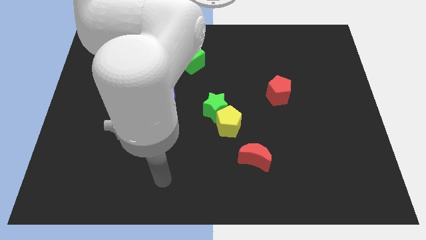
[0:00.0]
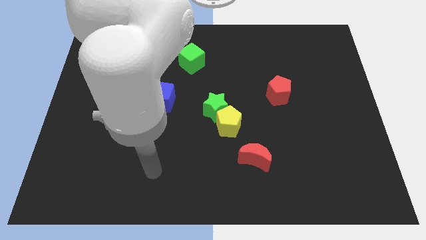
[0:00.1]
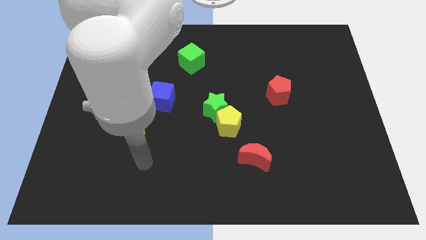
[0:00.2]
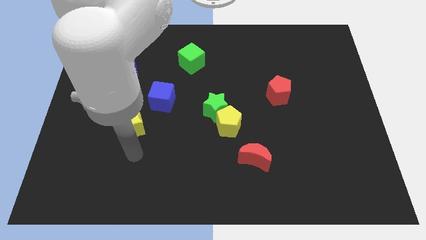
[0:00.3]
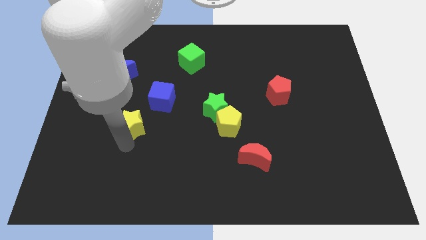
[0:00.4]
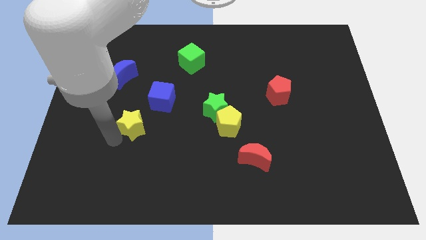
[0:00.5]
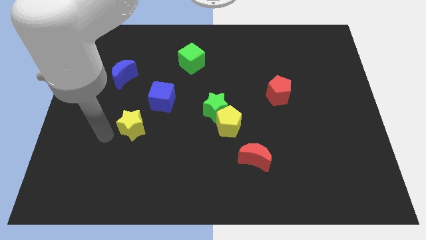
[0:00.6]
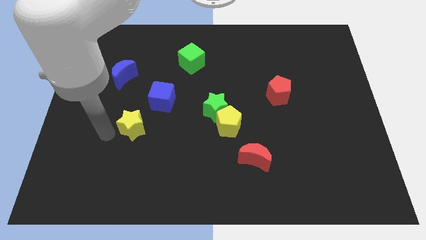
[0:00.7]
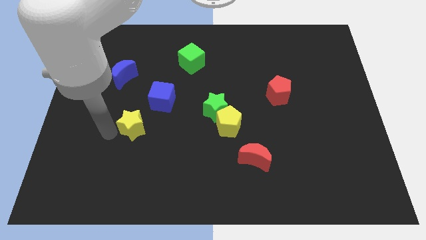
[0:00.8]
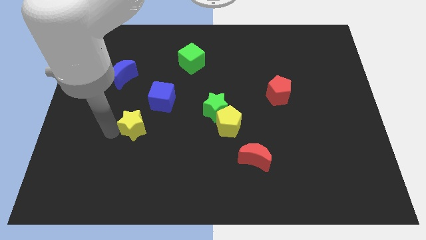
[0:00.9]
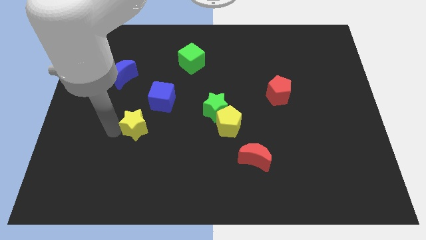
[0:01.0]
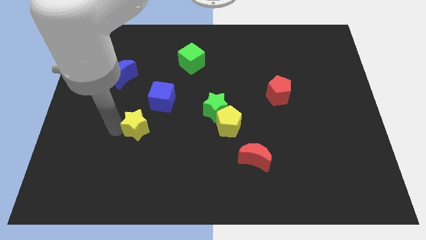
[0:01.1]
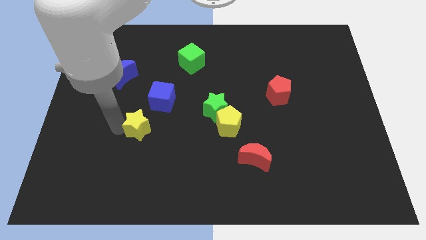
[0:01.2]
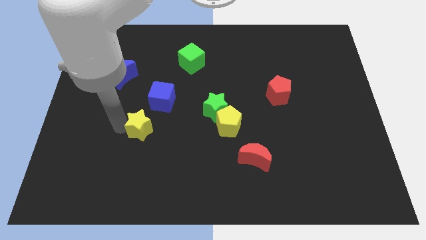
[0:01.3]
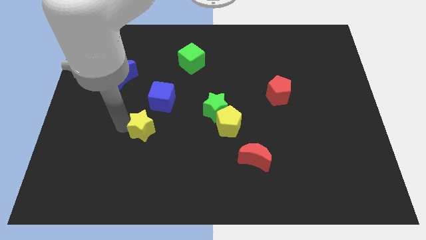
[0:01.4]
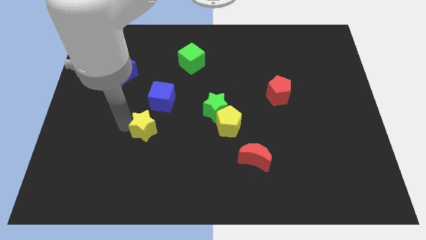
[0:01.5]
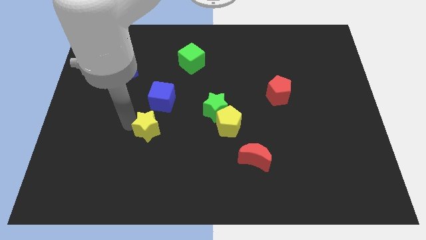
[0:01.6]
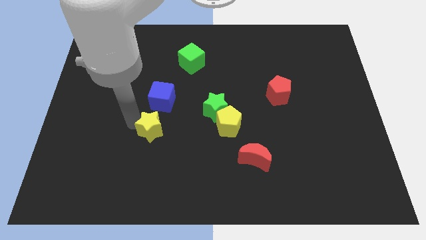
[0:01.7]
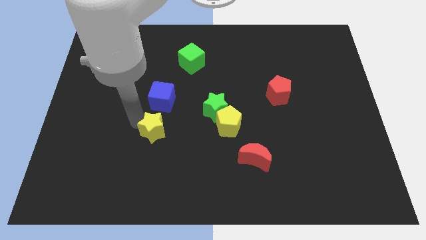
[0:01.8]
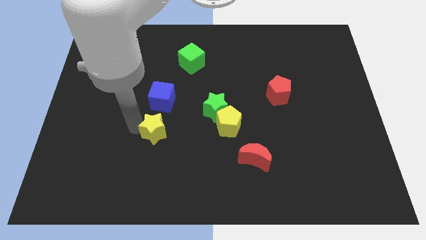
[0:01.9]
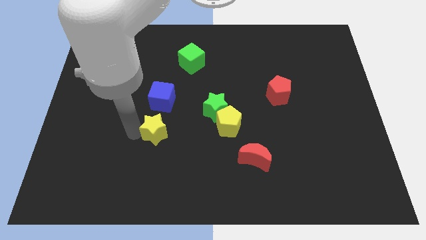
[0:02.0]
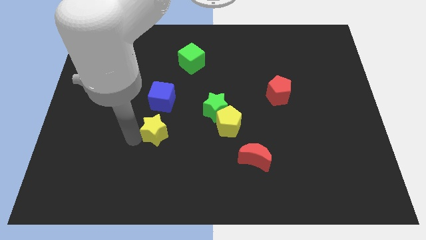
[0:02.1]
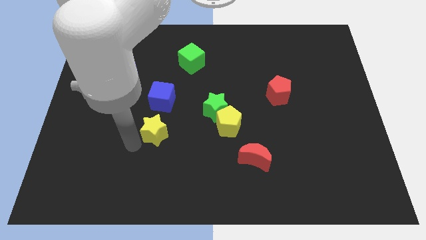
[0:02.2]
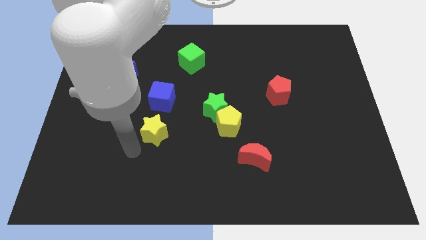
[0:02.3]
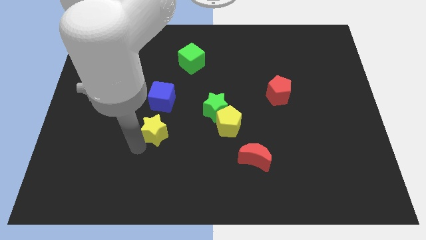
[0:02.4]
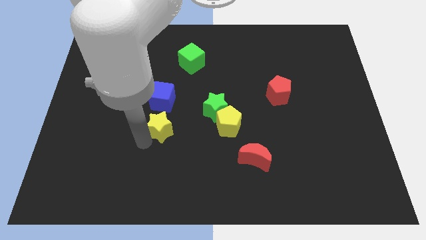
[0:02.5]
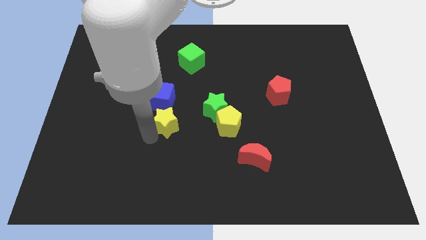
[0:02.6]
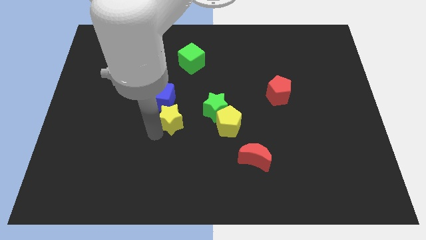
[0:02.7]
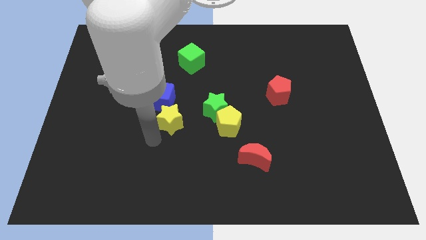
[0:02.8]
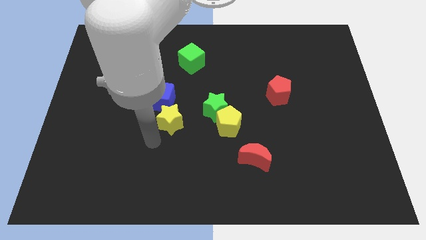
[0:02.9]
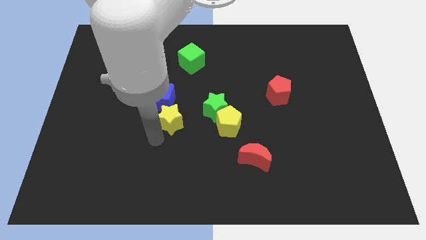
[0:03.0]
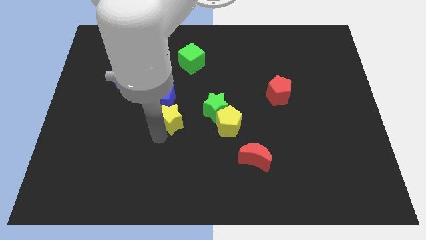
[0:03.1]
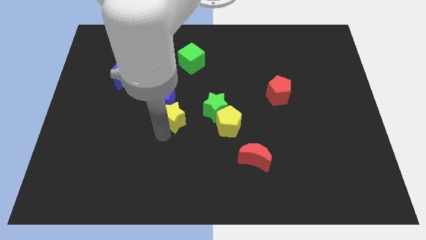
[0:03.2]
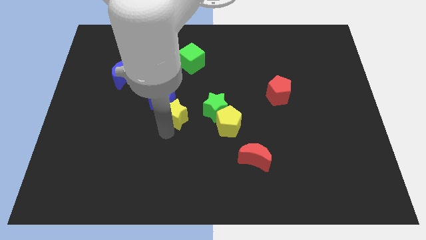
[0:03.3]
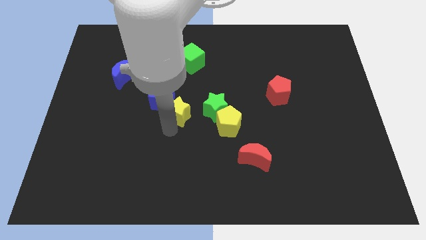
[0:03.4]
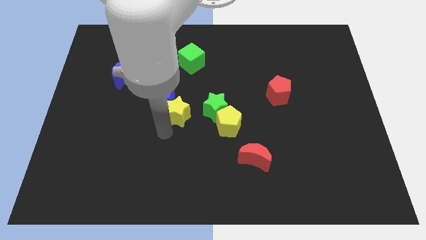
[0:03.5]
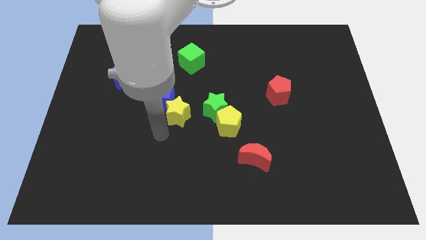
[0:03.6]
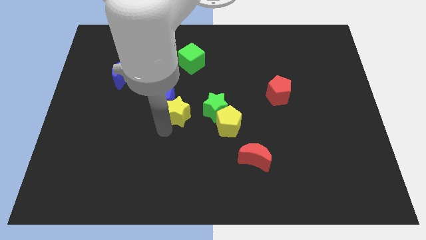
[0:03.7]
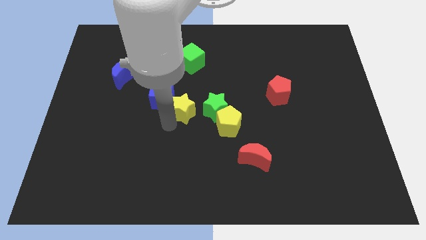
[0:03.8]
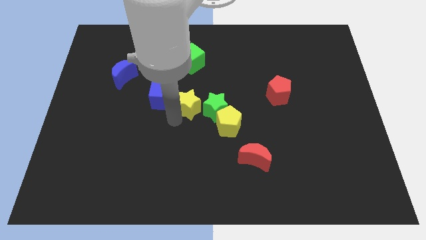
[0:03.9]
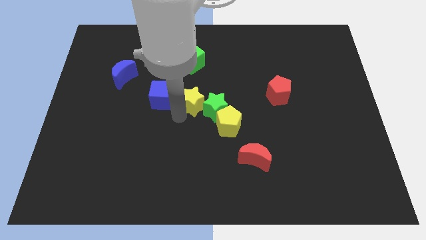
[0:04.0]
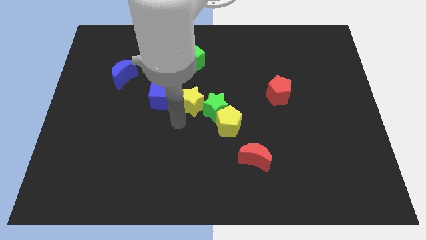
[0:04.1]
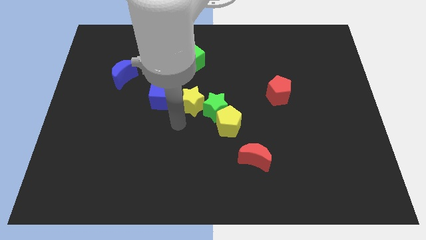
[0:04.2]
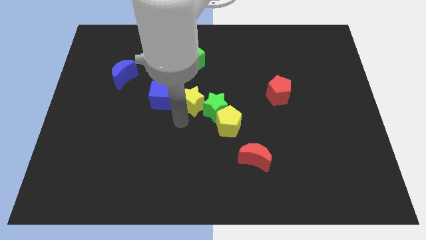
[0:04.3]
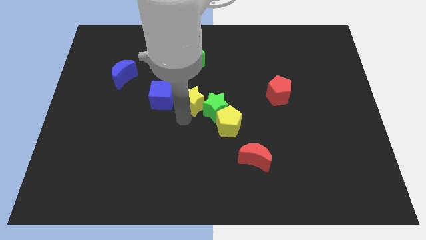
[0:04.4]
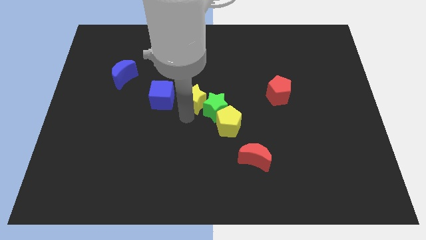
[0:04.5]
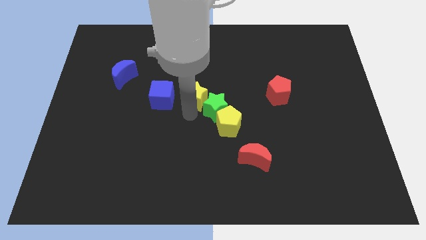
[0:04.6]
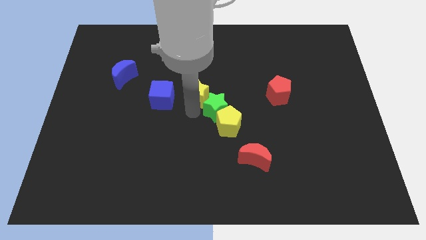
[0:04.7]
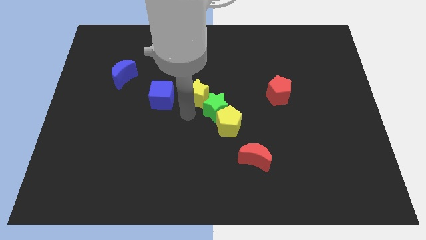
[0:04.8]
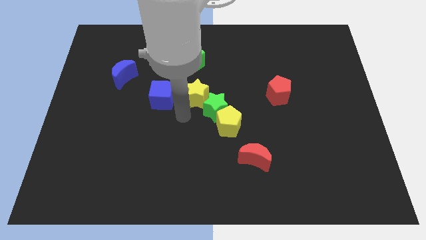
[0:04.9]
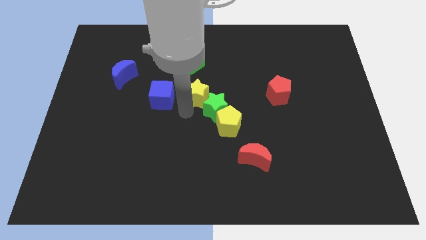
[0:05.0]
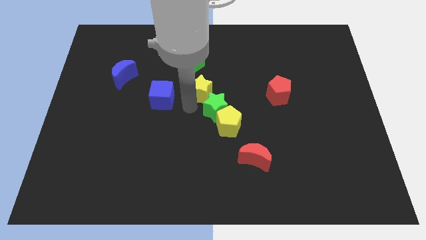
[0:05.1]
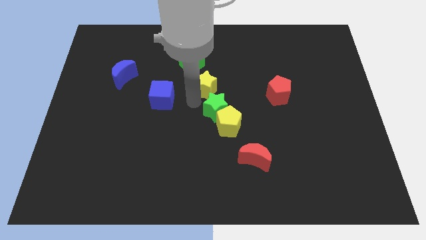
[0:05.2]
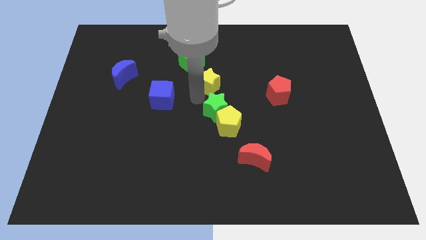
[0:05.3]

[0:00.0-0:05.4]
move the yellow star diagonally up and to the right

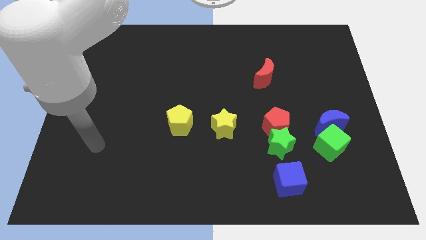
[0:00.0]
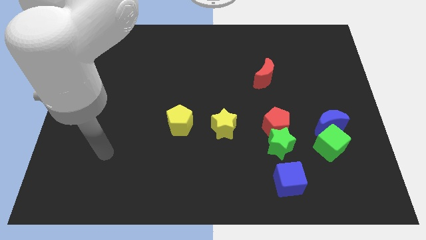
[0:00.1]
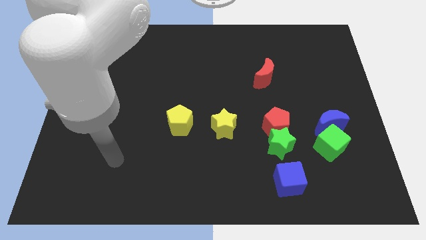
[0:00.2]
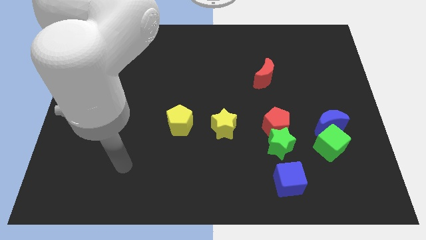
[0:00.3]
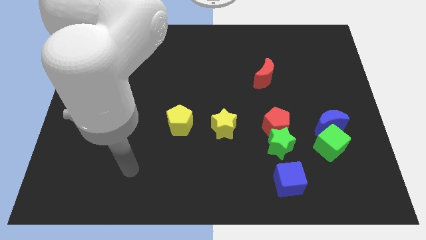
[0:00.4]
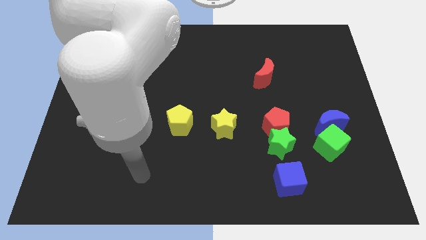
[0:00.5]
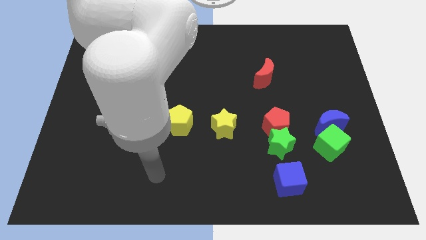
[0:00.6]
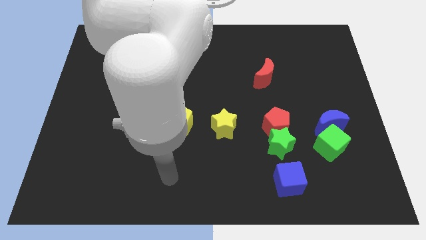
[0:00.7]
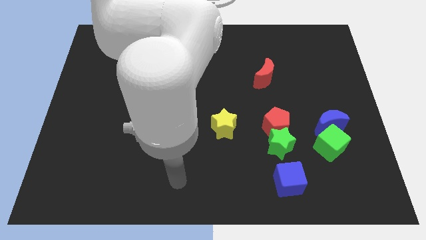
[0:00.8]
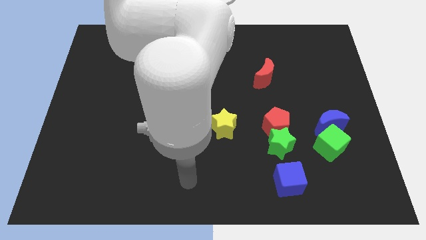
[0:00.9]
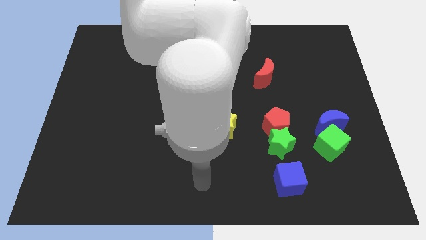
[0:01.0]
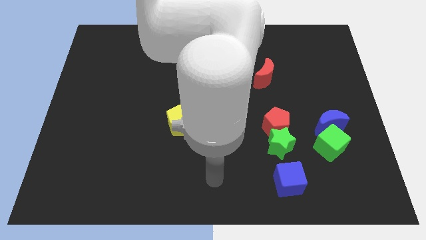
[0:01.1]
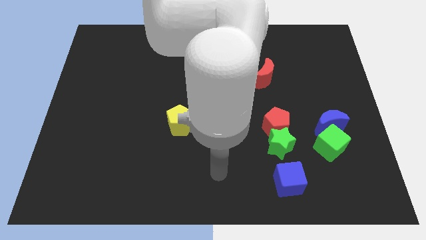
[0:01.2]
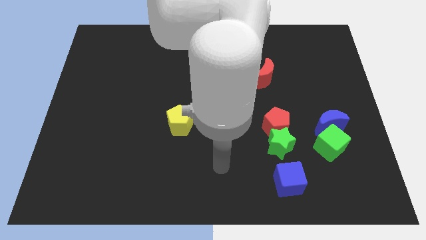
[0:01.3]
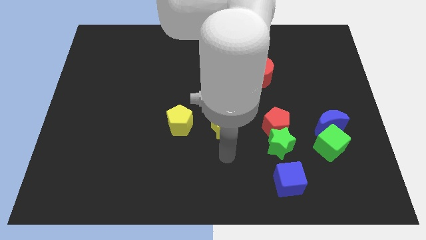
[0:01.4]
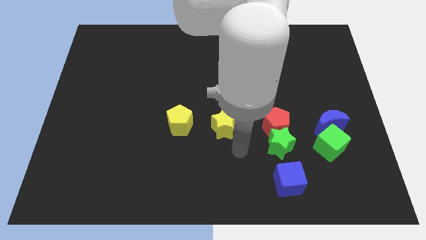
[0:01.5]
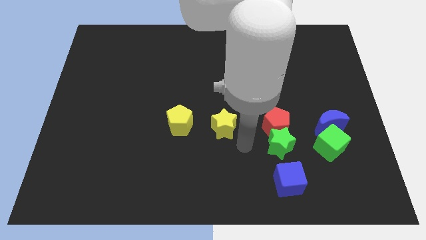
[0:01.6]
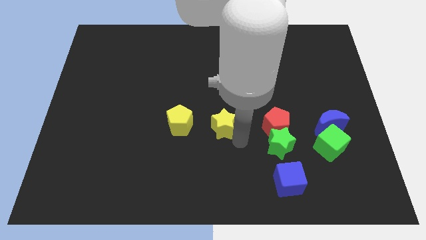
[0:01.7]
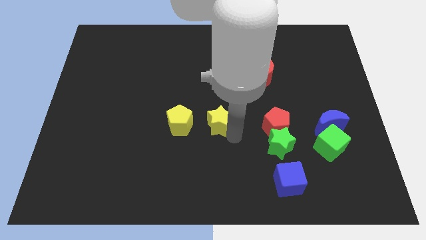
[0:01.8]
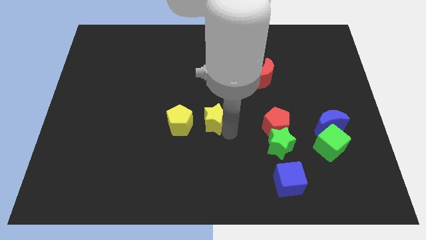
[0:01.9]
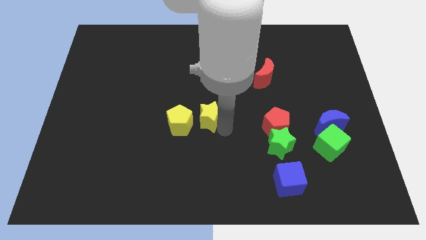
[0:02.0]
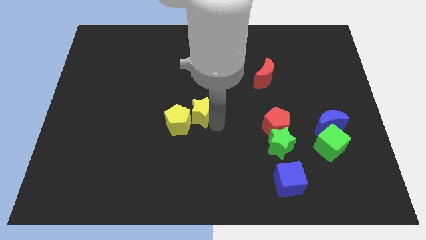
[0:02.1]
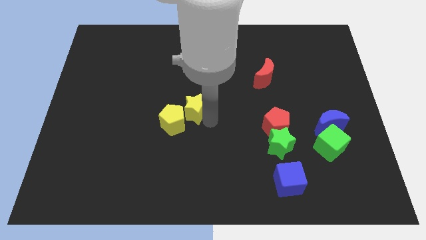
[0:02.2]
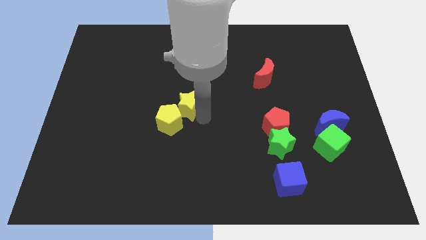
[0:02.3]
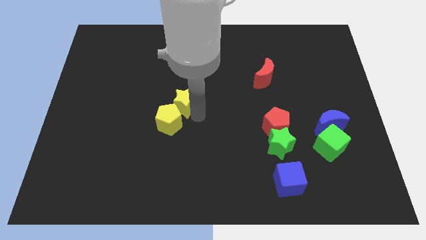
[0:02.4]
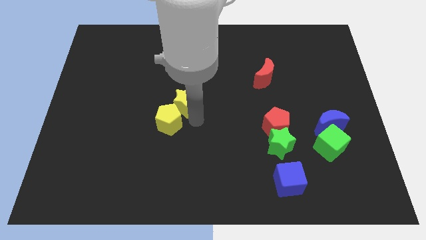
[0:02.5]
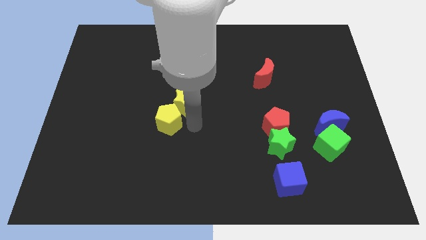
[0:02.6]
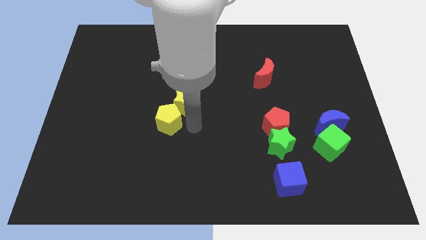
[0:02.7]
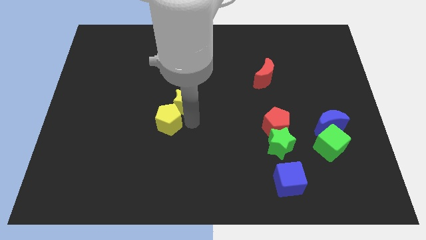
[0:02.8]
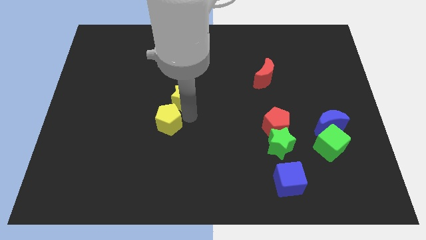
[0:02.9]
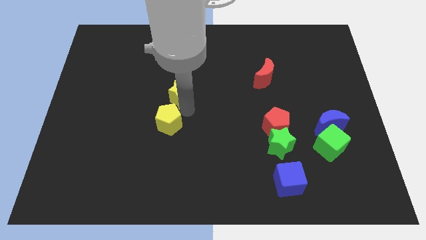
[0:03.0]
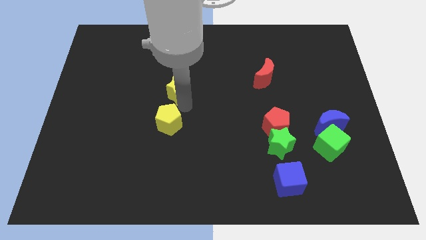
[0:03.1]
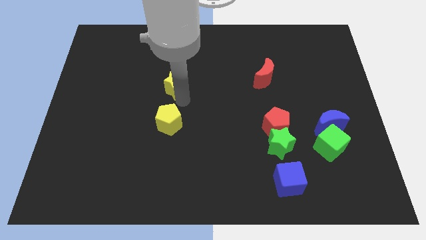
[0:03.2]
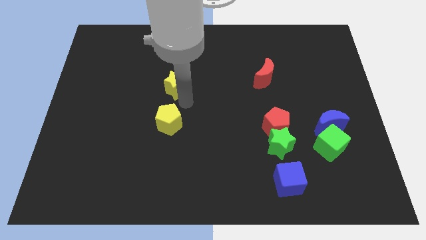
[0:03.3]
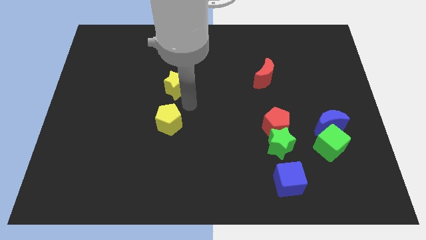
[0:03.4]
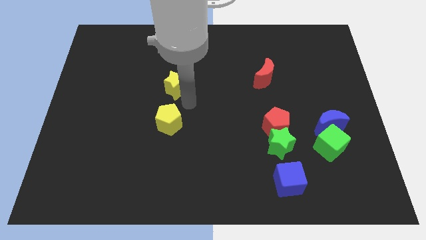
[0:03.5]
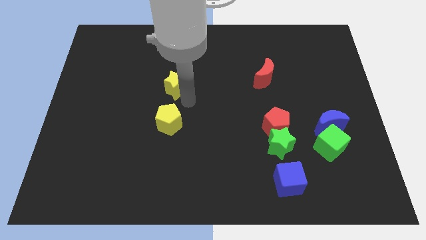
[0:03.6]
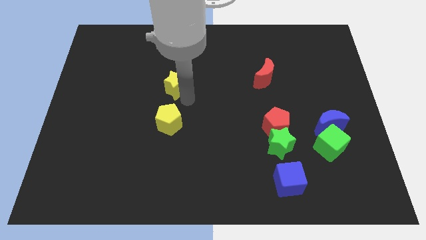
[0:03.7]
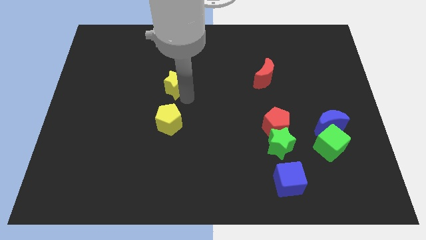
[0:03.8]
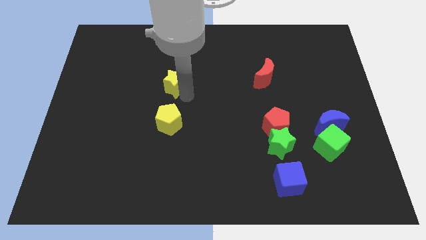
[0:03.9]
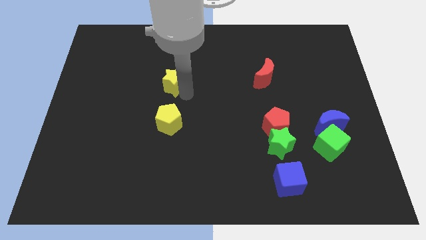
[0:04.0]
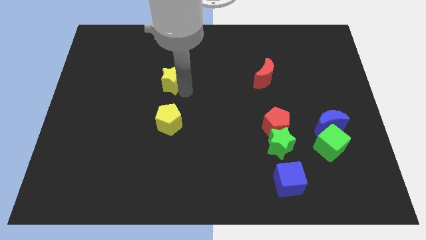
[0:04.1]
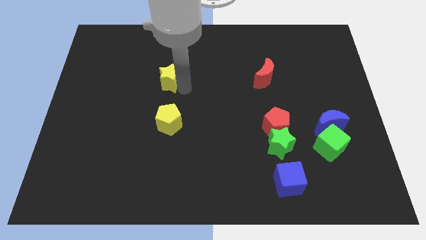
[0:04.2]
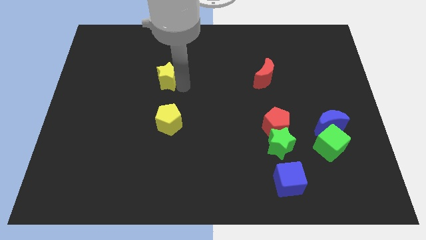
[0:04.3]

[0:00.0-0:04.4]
move the yellow star diagonally upwards and left
